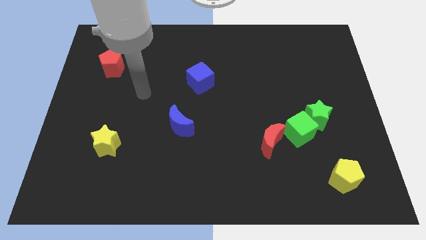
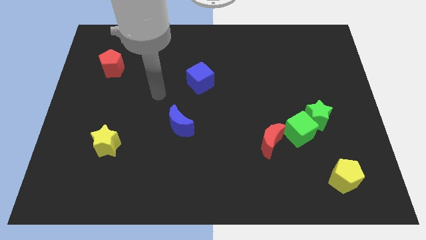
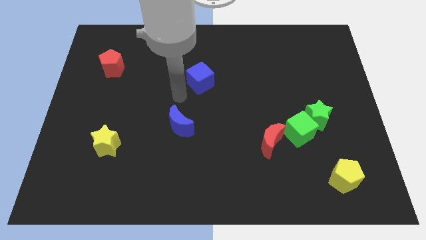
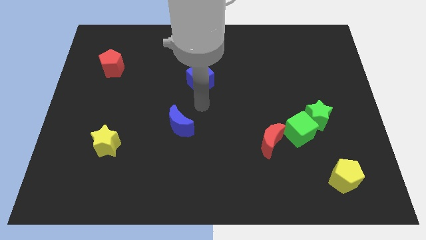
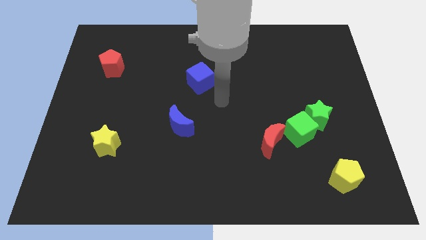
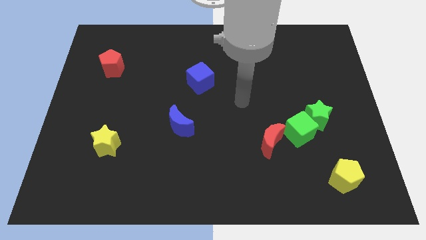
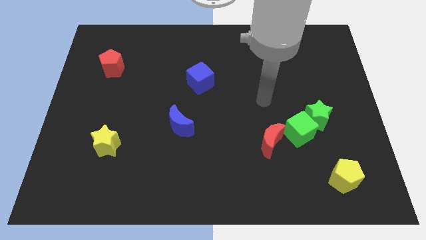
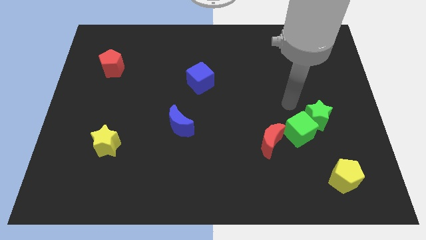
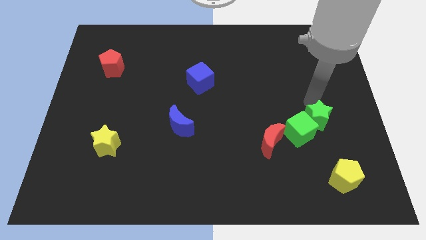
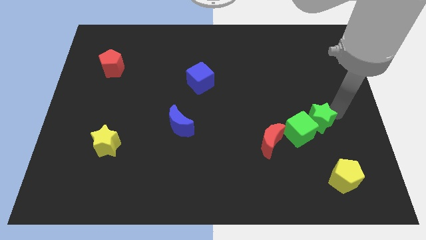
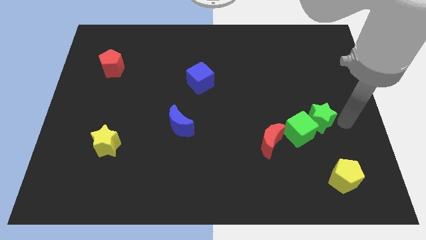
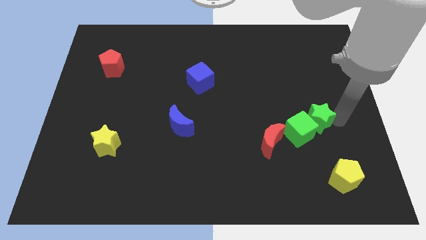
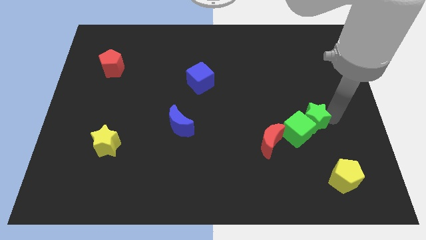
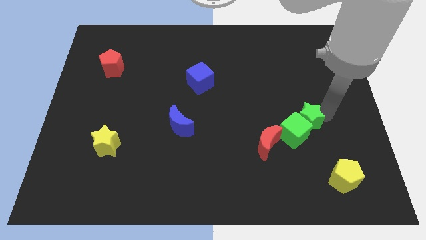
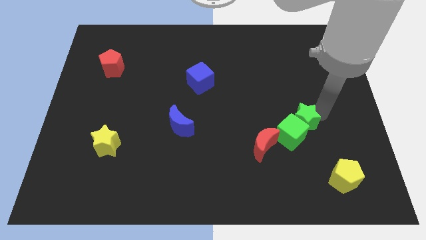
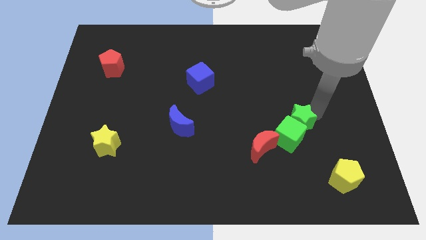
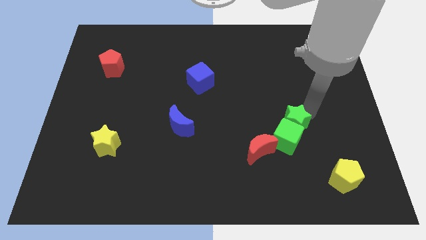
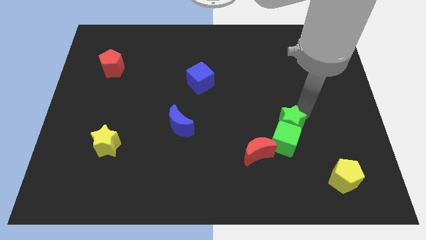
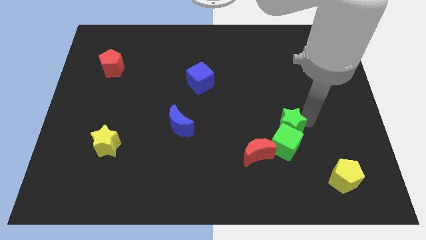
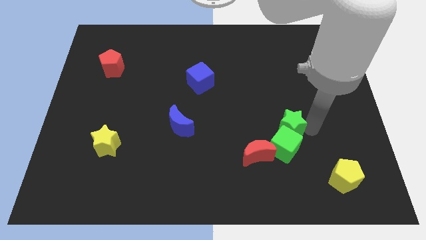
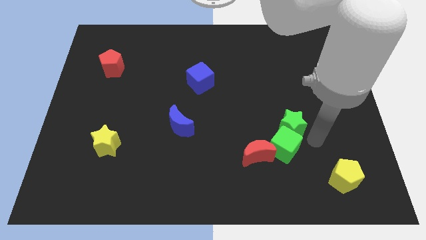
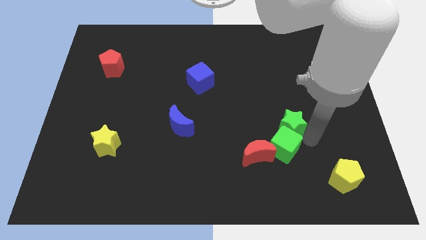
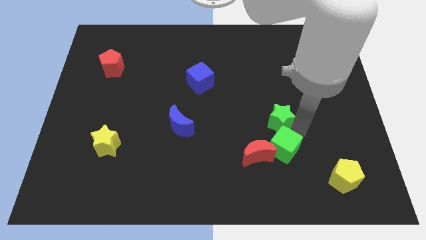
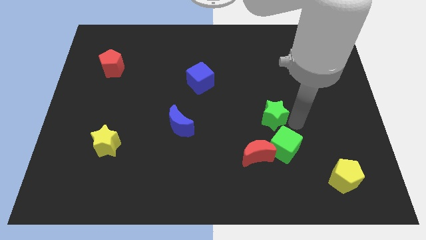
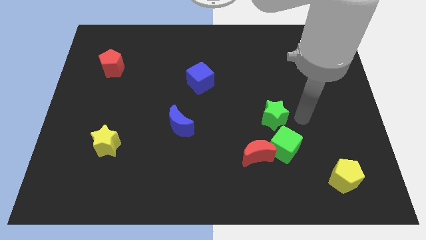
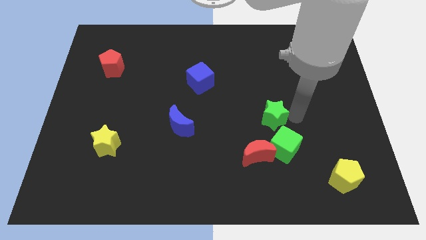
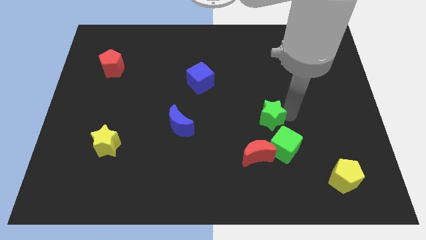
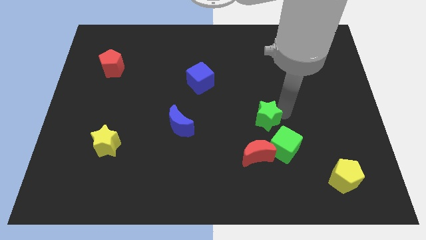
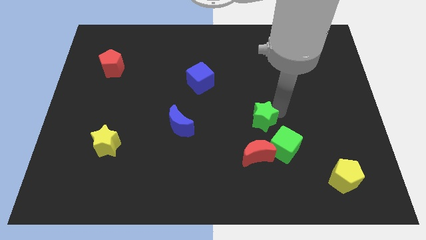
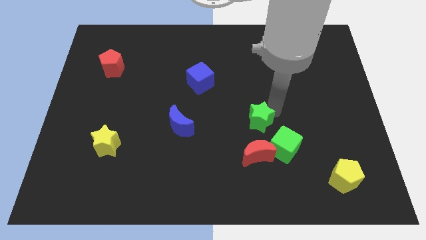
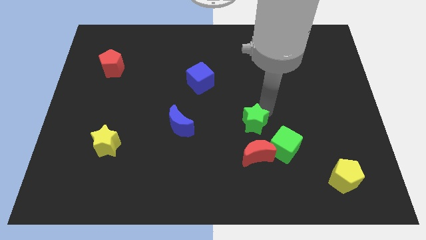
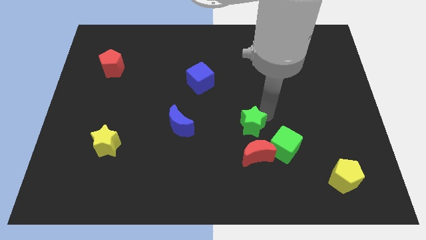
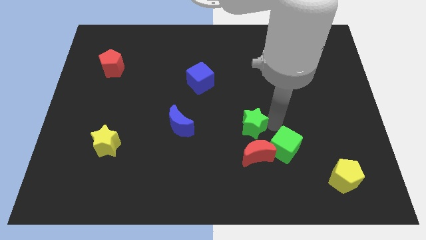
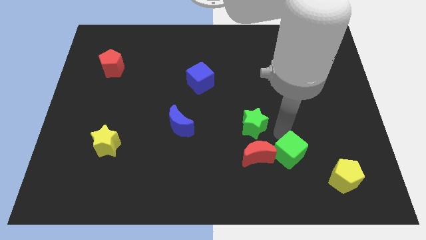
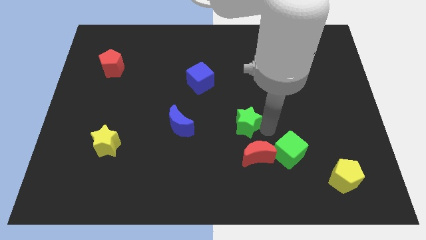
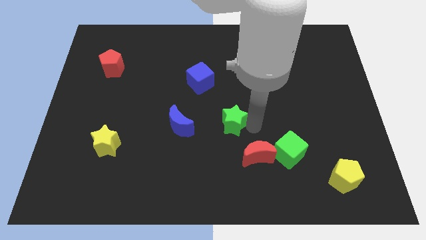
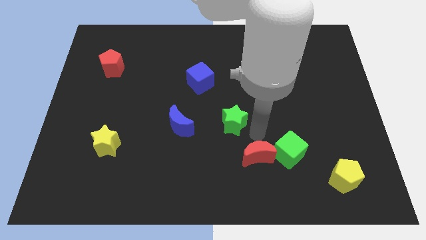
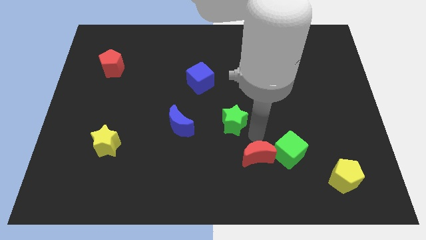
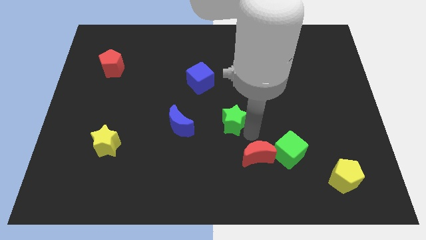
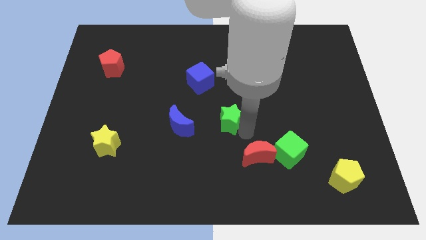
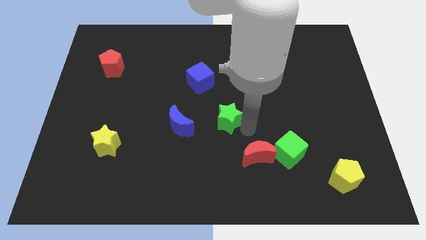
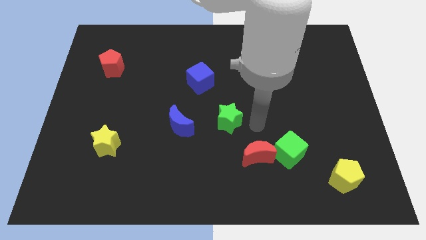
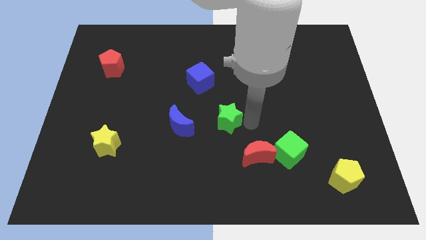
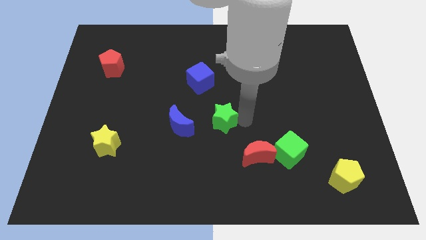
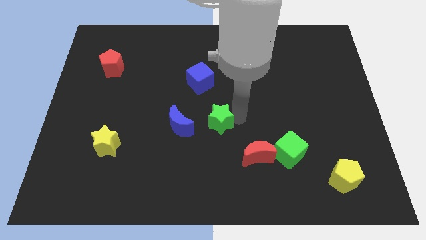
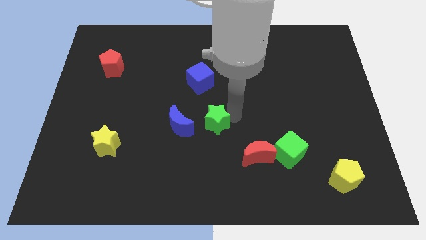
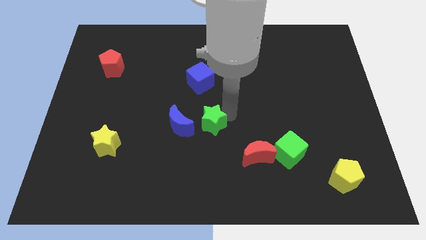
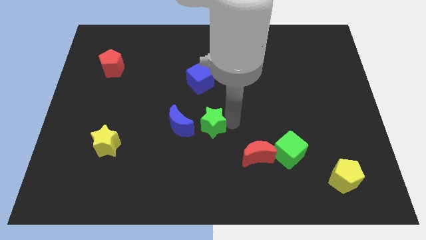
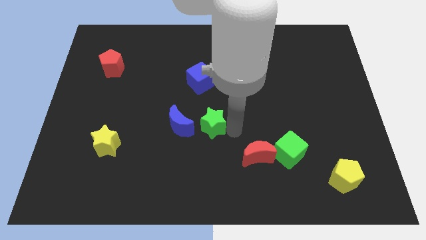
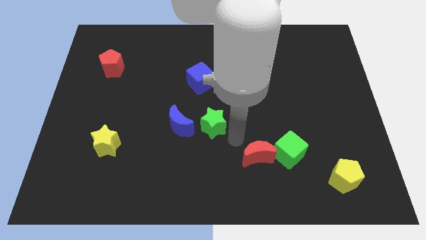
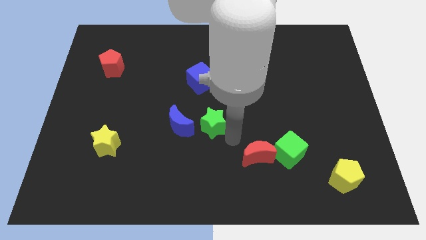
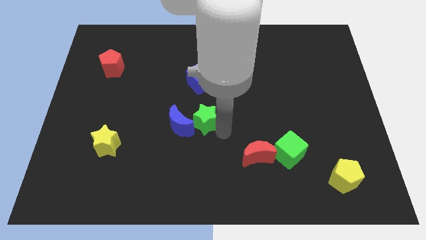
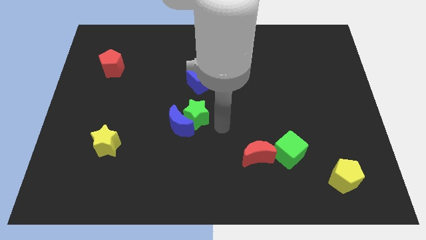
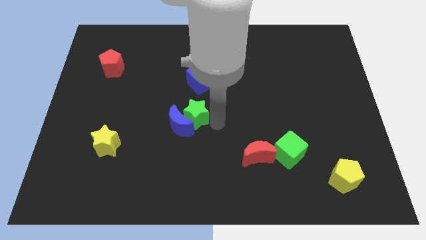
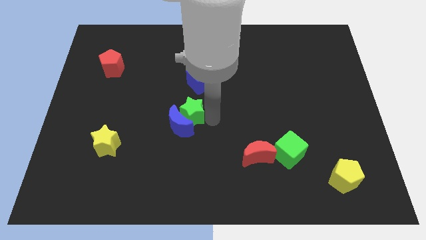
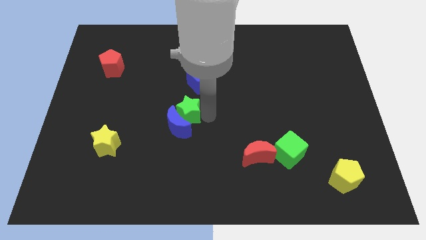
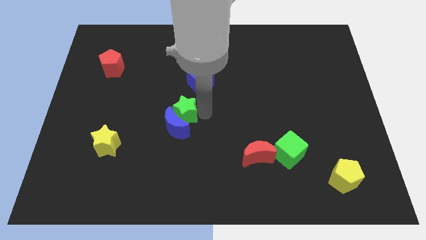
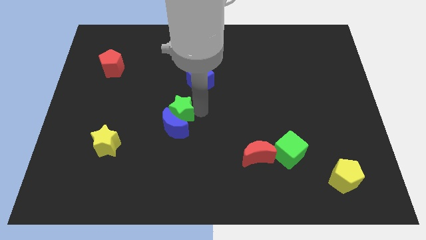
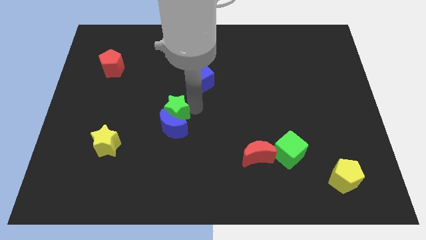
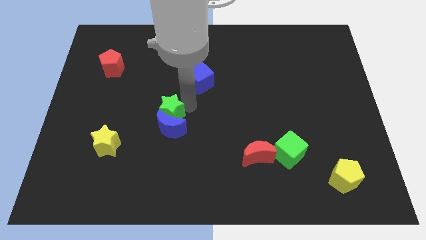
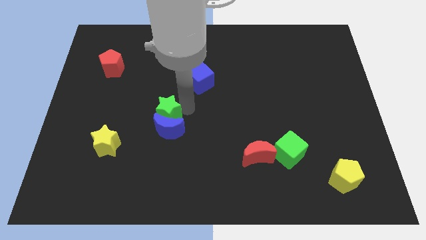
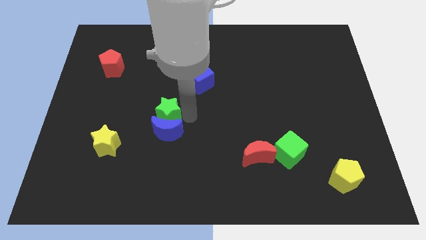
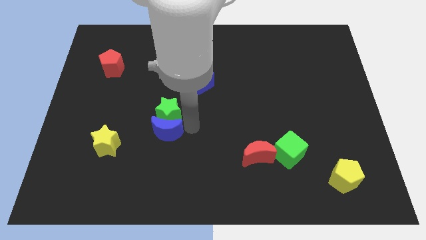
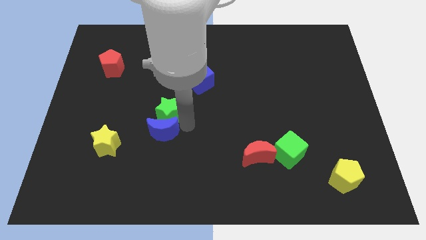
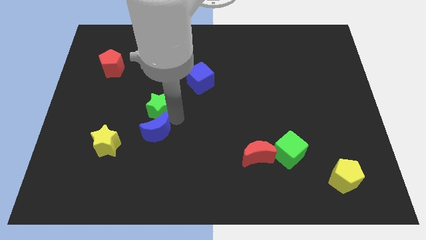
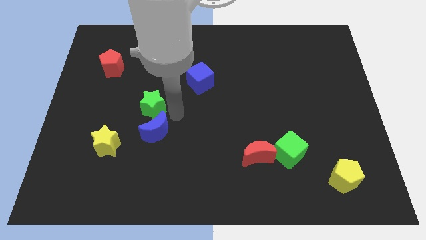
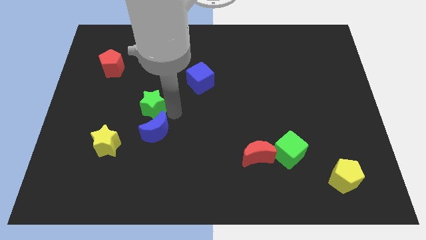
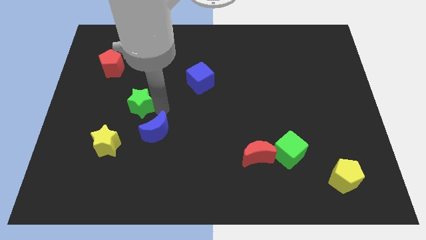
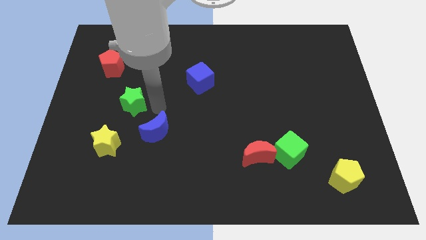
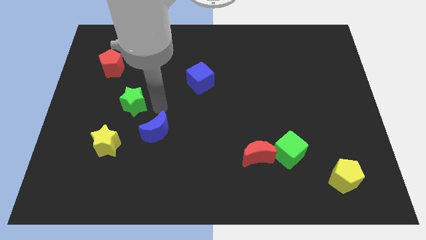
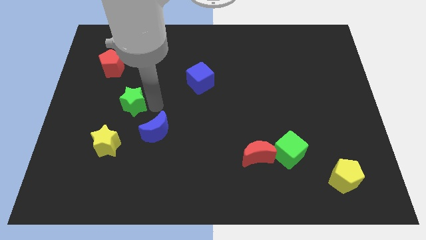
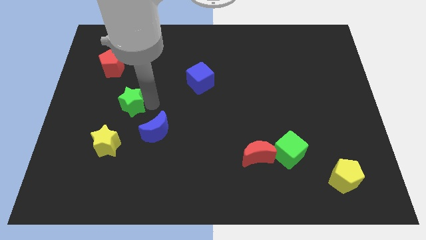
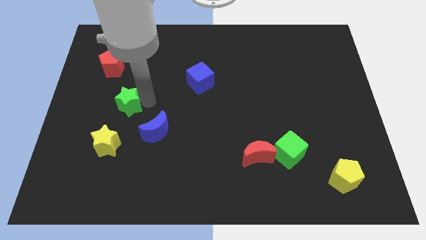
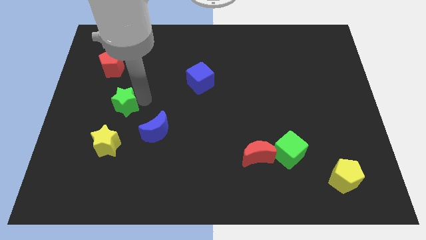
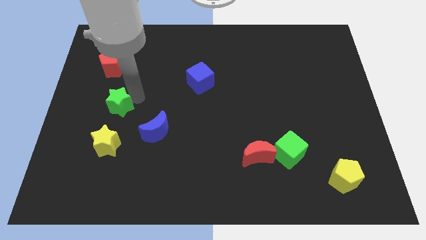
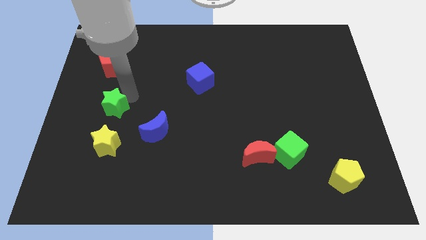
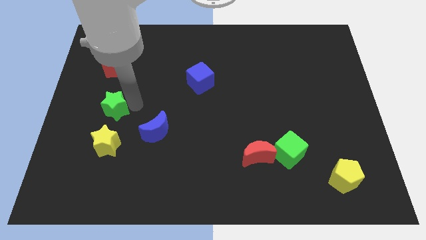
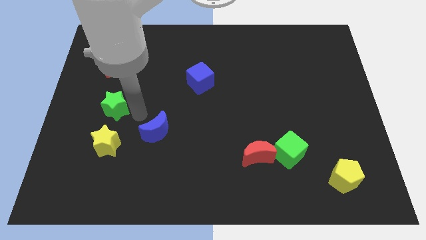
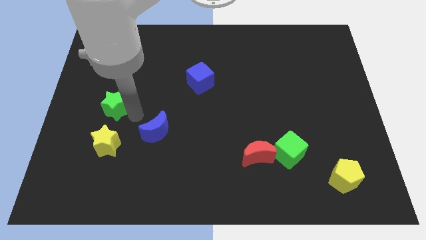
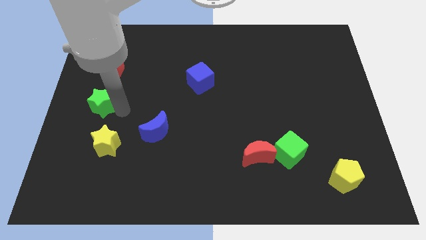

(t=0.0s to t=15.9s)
push the green star to the center left
